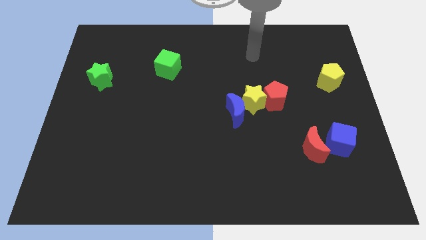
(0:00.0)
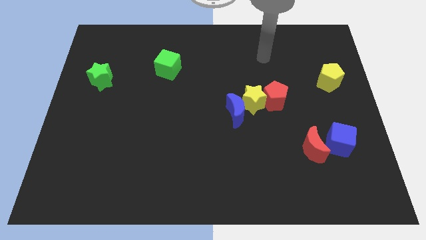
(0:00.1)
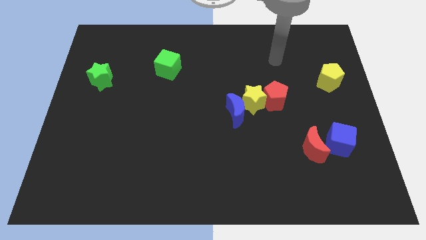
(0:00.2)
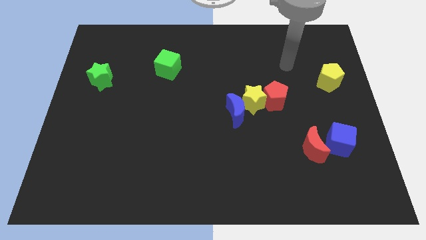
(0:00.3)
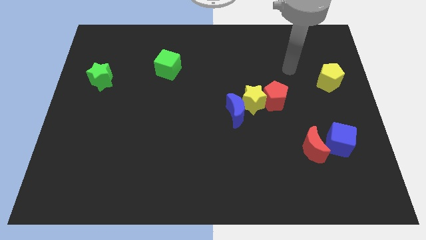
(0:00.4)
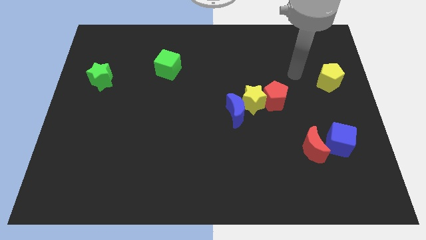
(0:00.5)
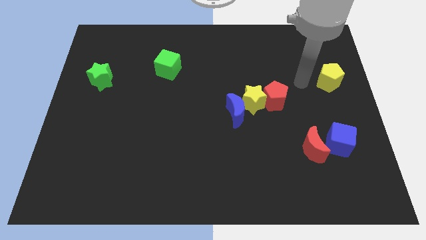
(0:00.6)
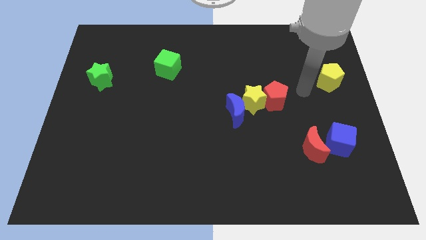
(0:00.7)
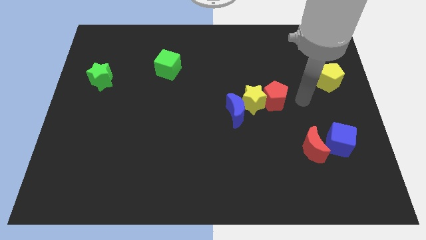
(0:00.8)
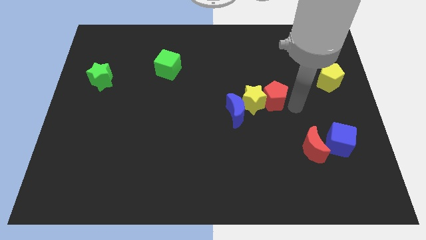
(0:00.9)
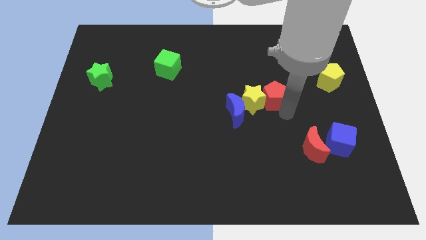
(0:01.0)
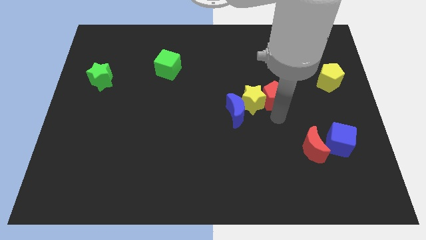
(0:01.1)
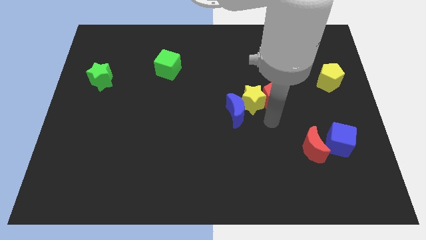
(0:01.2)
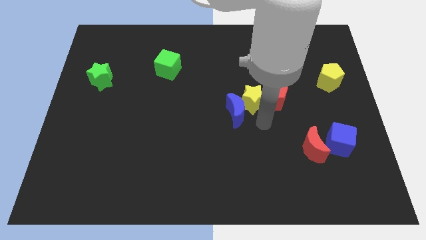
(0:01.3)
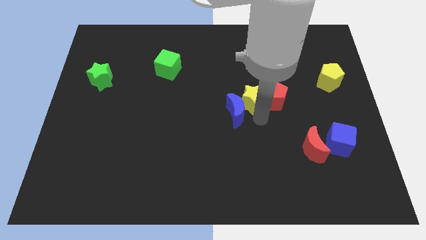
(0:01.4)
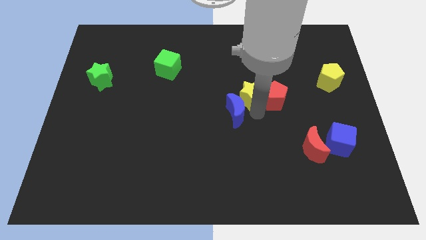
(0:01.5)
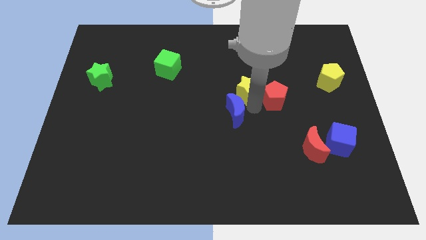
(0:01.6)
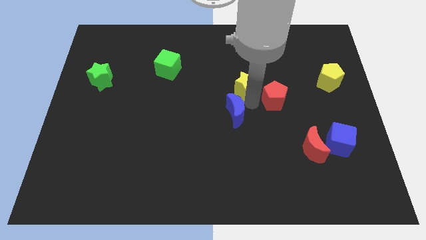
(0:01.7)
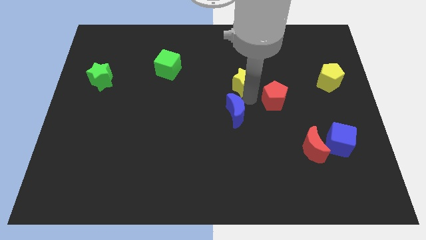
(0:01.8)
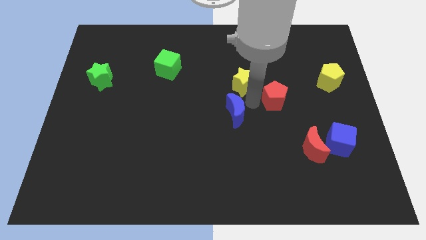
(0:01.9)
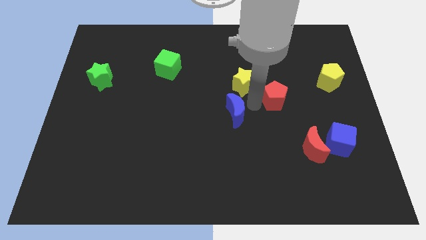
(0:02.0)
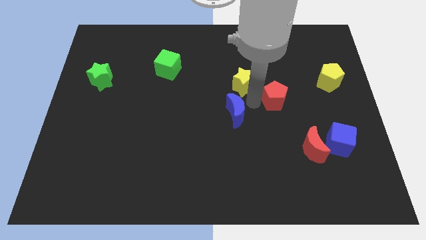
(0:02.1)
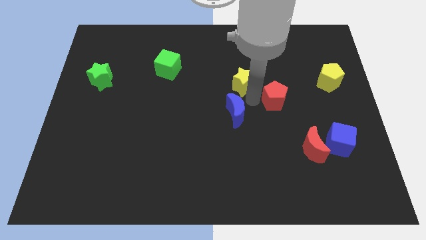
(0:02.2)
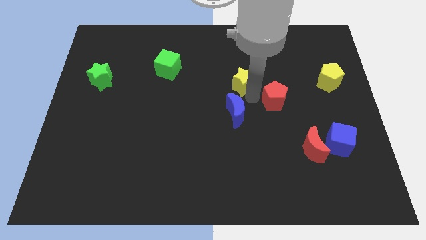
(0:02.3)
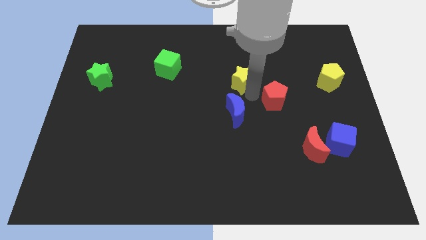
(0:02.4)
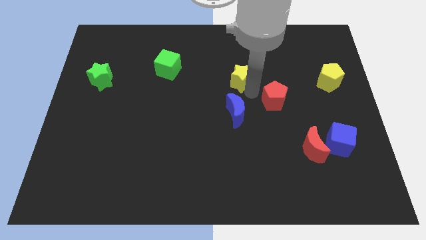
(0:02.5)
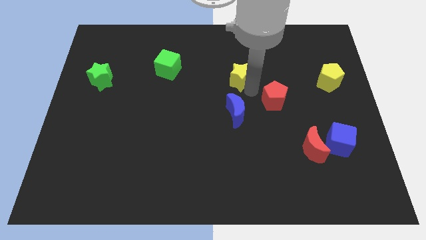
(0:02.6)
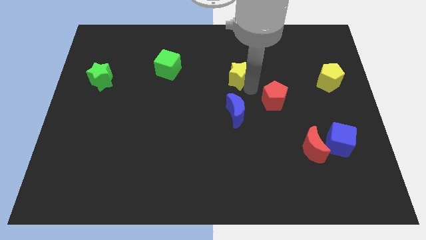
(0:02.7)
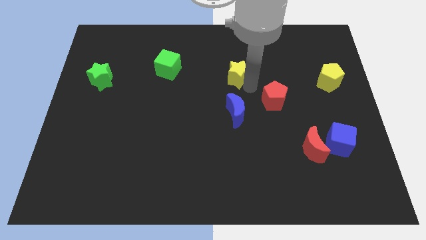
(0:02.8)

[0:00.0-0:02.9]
pull the yellow star apart from the blue moon and red pentagon

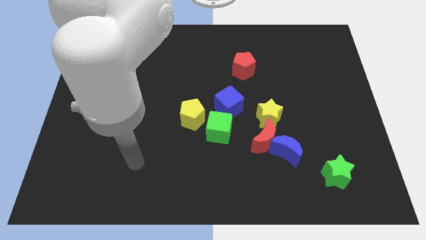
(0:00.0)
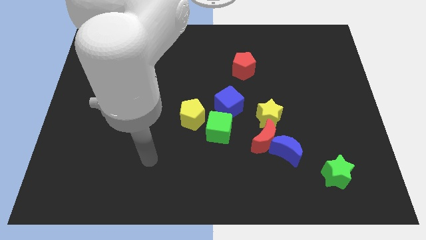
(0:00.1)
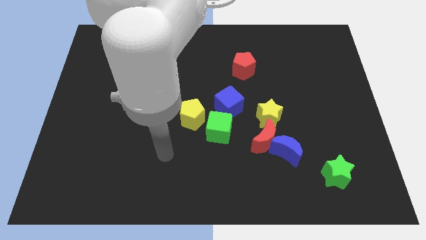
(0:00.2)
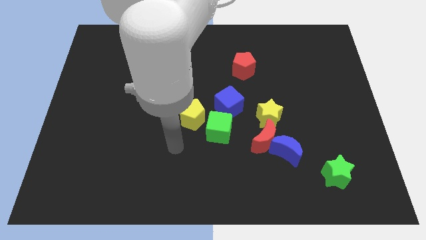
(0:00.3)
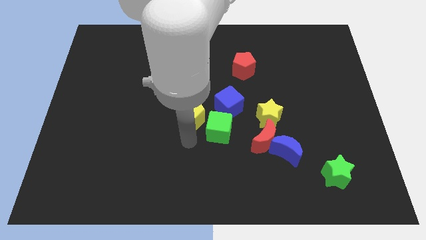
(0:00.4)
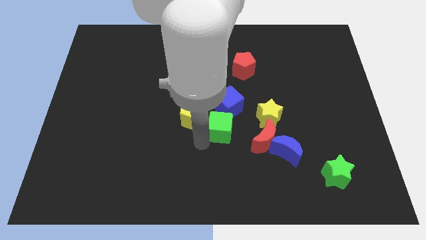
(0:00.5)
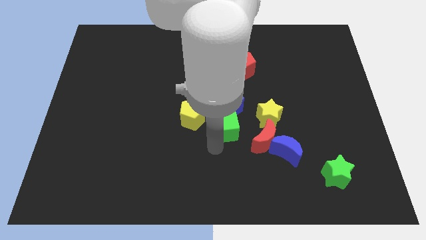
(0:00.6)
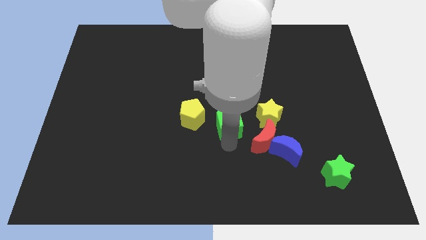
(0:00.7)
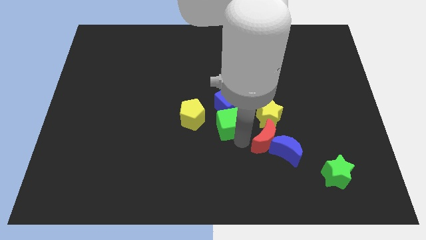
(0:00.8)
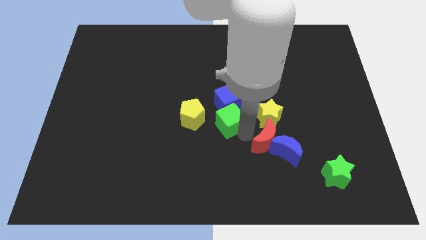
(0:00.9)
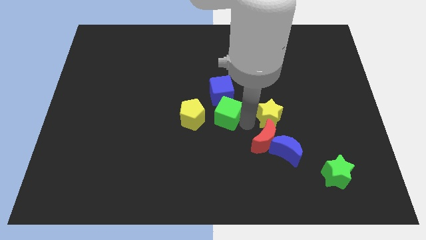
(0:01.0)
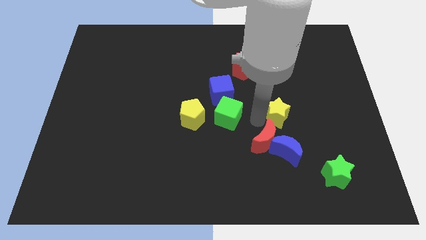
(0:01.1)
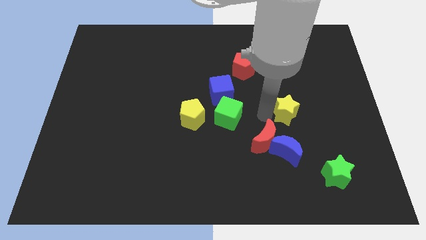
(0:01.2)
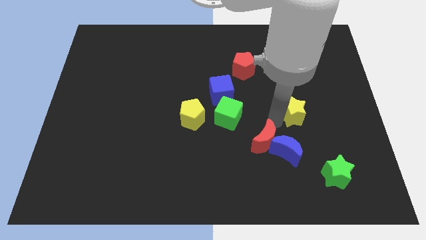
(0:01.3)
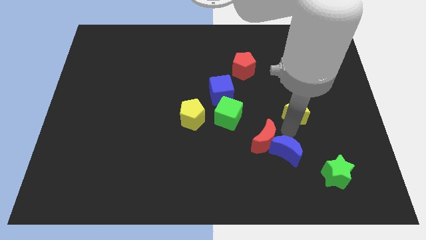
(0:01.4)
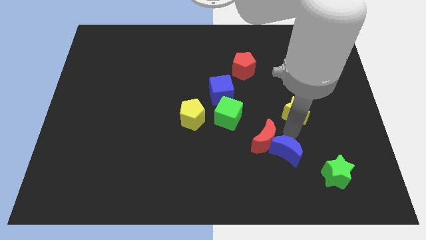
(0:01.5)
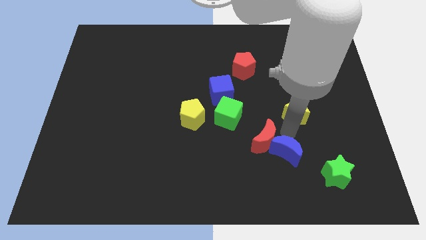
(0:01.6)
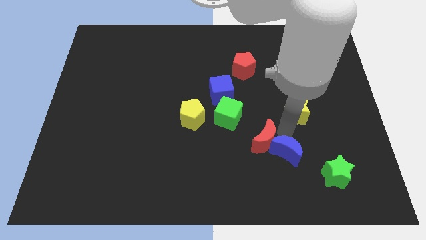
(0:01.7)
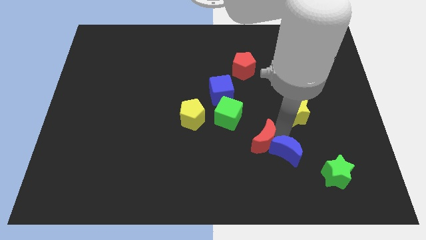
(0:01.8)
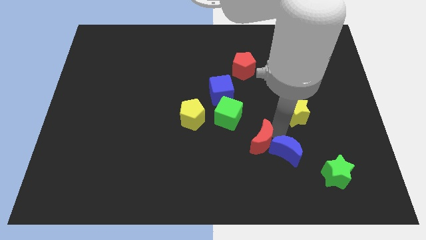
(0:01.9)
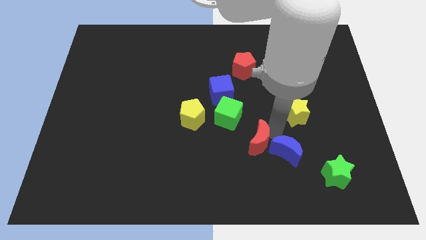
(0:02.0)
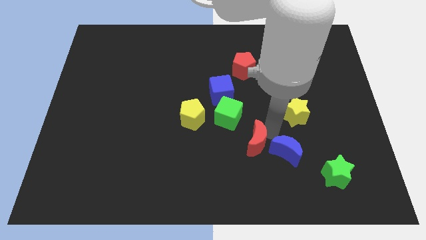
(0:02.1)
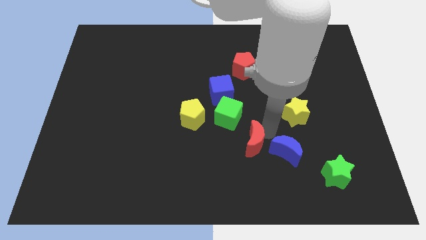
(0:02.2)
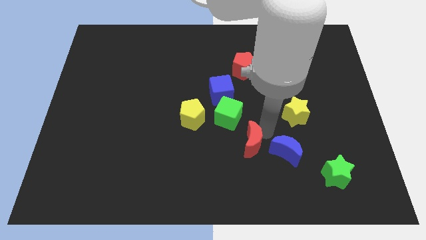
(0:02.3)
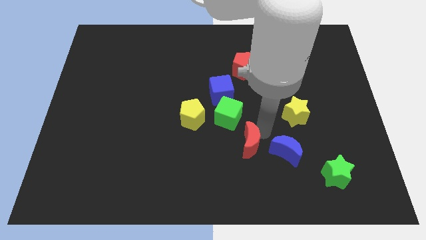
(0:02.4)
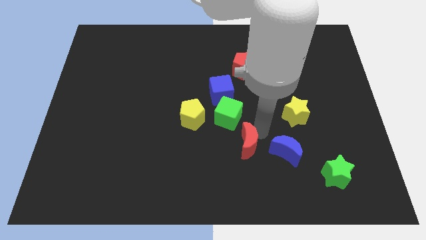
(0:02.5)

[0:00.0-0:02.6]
pull the red moon apart from the blue moon and yellow star

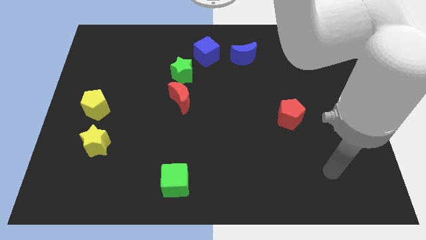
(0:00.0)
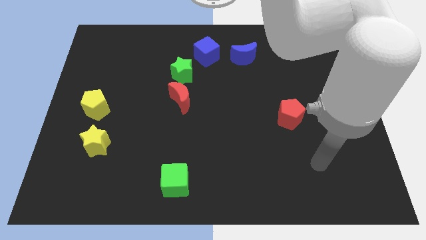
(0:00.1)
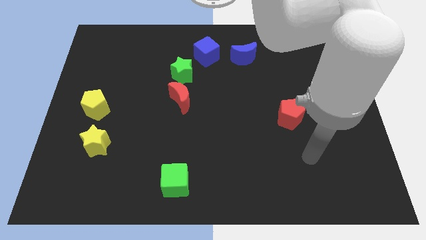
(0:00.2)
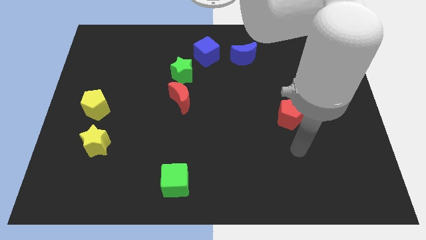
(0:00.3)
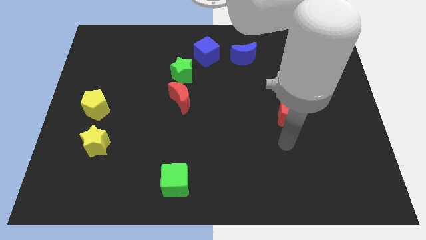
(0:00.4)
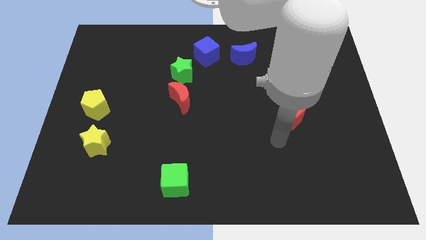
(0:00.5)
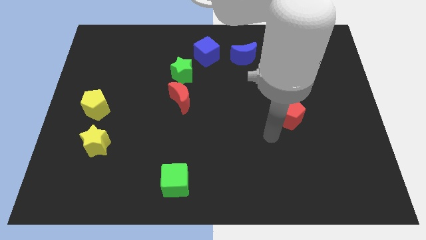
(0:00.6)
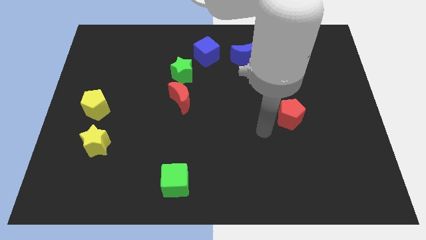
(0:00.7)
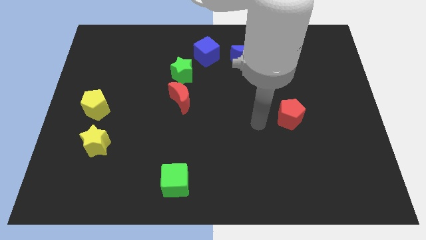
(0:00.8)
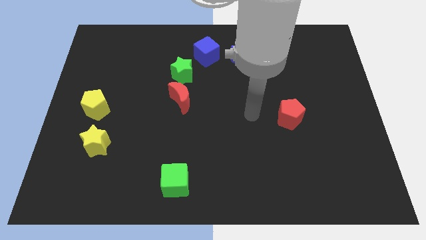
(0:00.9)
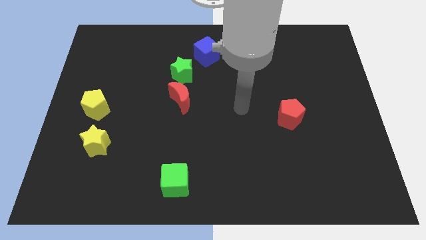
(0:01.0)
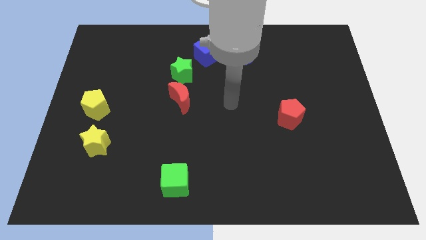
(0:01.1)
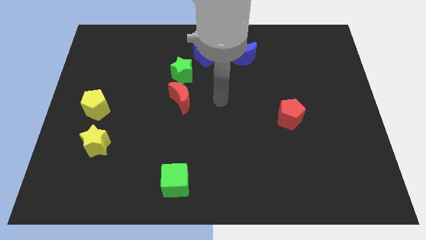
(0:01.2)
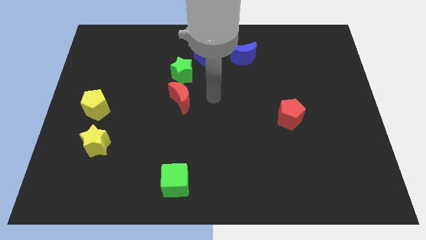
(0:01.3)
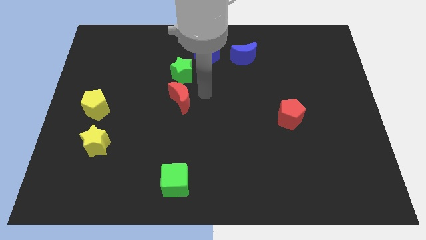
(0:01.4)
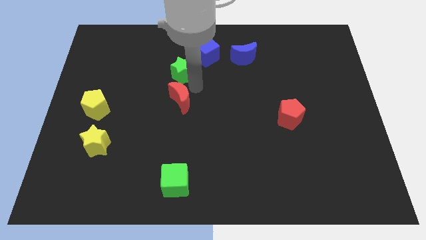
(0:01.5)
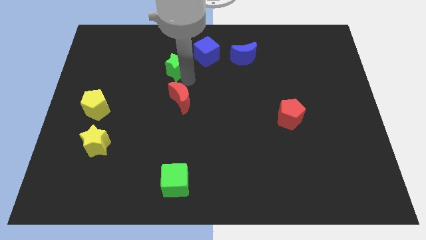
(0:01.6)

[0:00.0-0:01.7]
pull the red moon apart from the green star

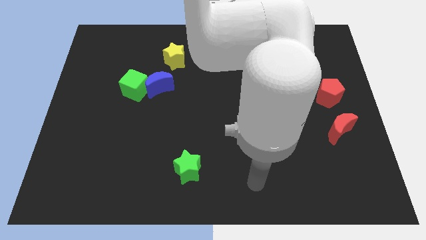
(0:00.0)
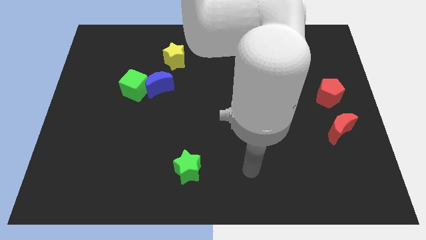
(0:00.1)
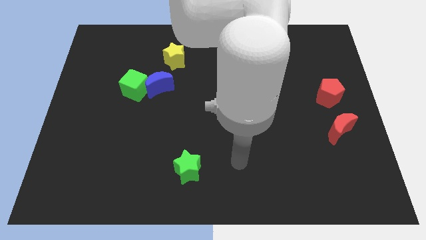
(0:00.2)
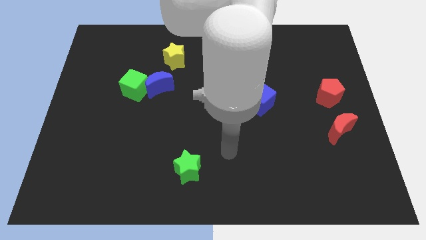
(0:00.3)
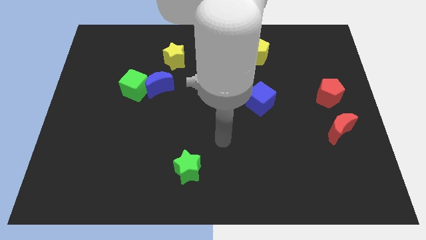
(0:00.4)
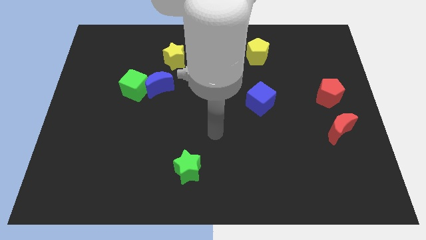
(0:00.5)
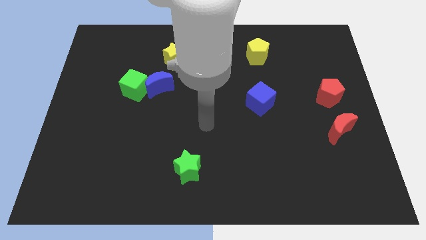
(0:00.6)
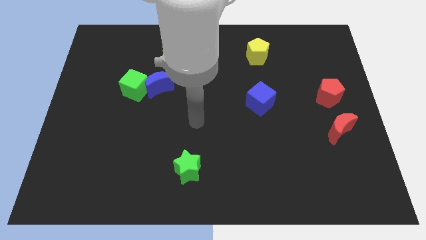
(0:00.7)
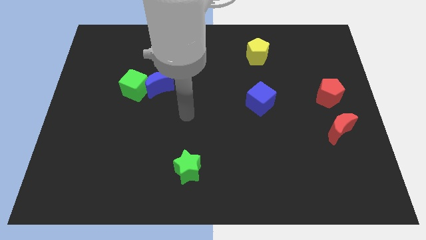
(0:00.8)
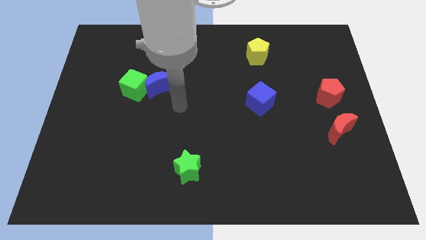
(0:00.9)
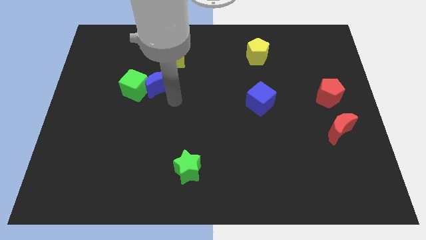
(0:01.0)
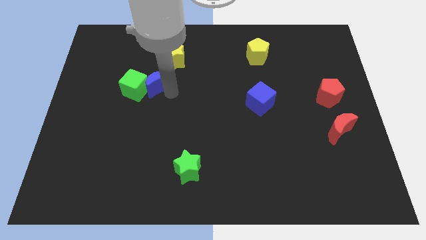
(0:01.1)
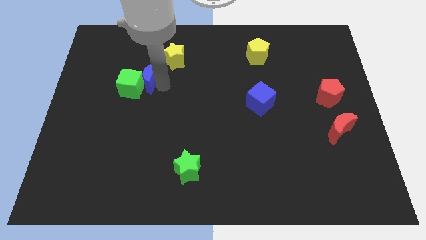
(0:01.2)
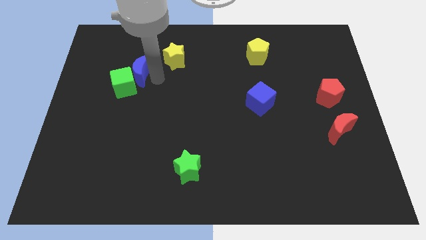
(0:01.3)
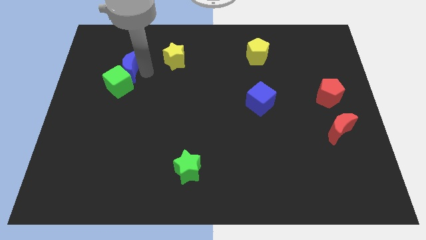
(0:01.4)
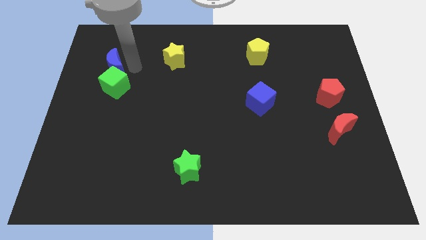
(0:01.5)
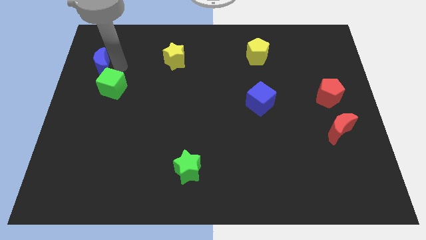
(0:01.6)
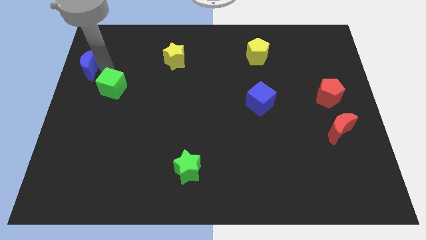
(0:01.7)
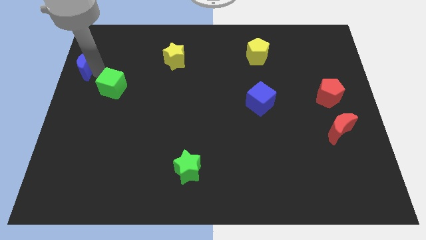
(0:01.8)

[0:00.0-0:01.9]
move the green cube away from the blue moon

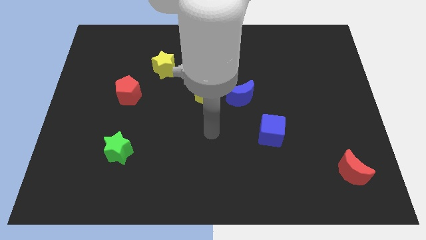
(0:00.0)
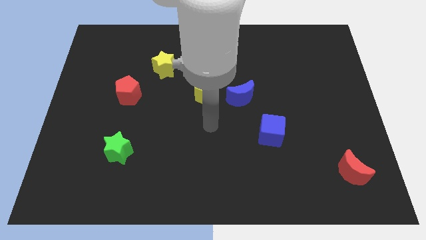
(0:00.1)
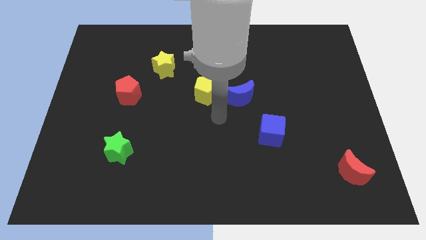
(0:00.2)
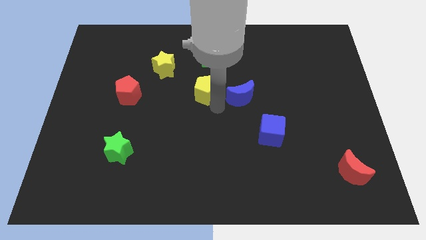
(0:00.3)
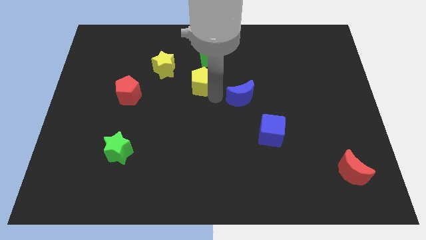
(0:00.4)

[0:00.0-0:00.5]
move the blue moon away from the yellow pentagon
